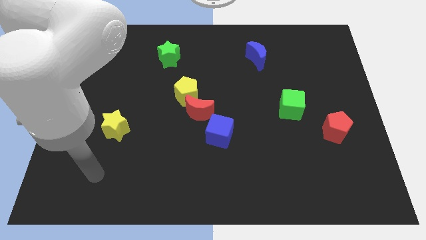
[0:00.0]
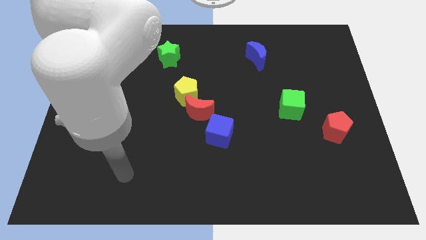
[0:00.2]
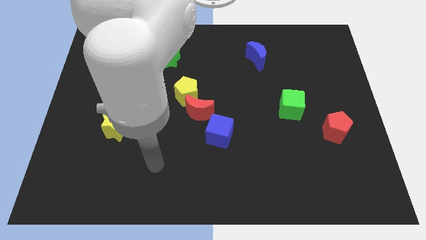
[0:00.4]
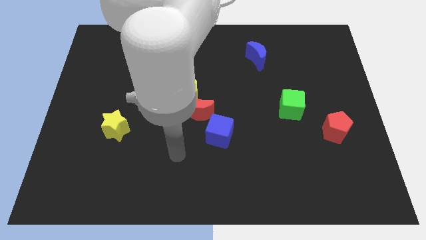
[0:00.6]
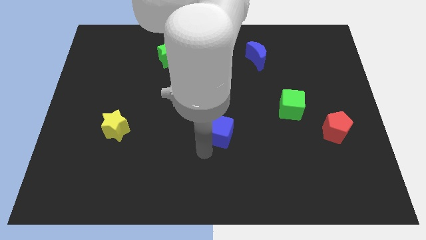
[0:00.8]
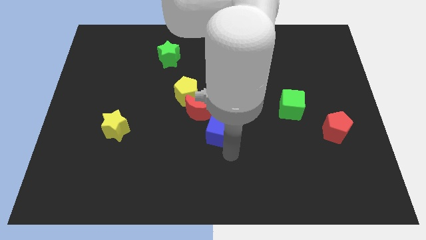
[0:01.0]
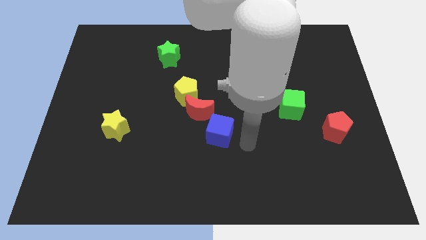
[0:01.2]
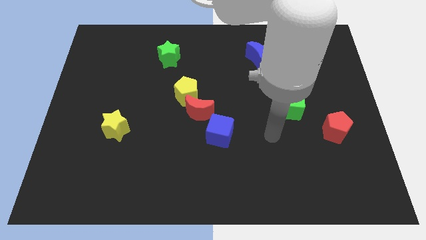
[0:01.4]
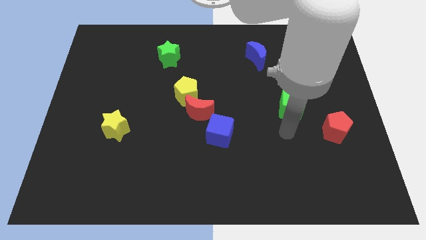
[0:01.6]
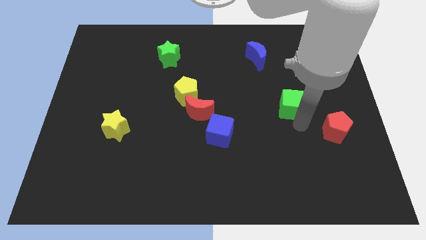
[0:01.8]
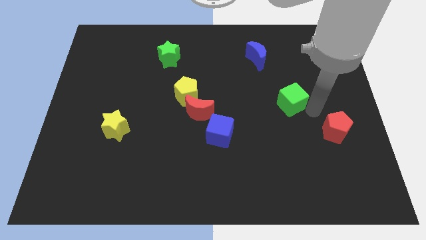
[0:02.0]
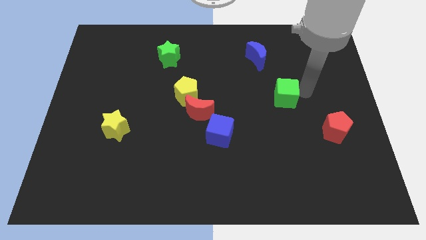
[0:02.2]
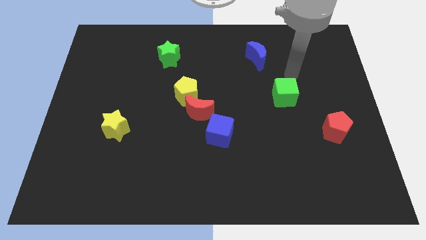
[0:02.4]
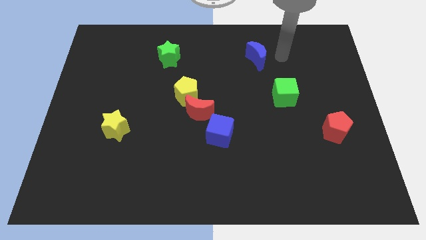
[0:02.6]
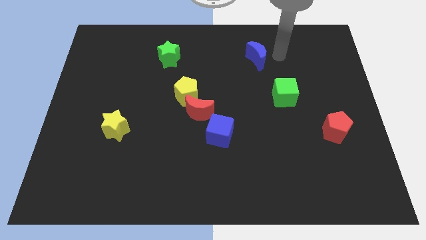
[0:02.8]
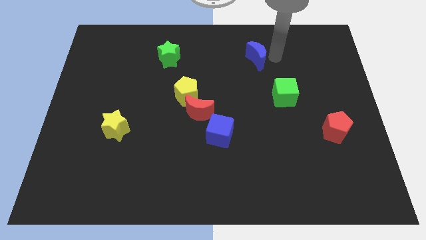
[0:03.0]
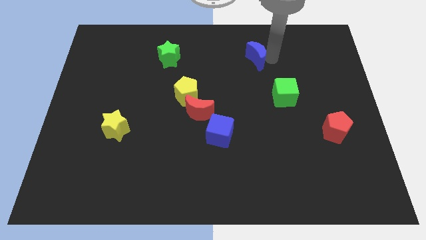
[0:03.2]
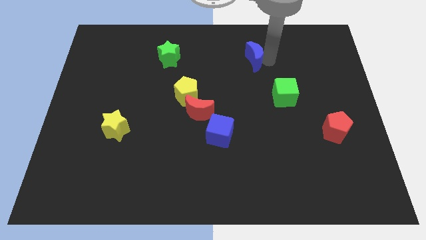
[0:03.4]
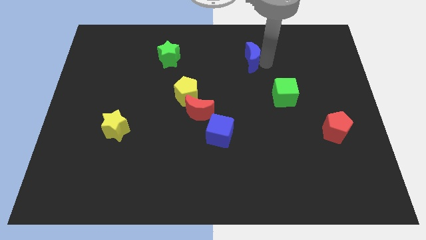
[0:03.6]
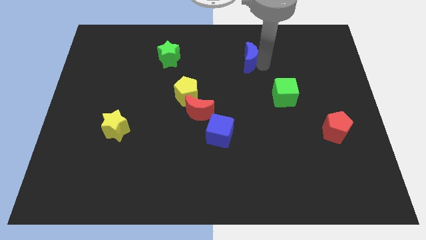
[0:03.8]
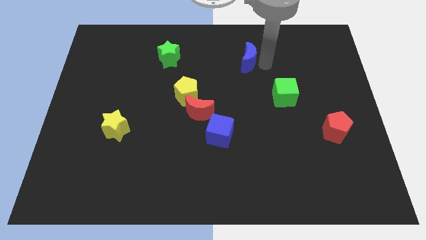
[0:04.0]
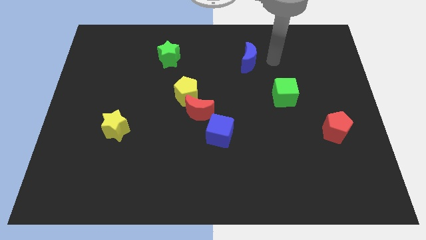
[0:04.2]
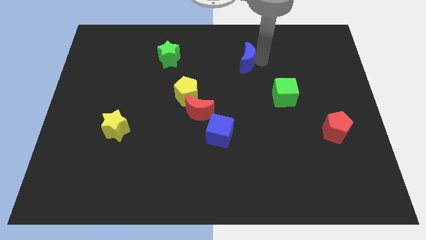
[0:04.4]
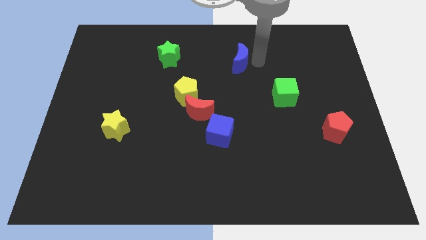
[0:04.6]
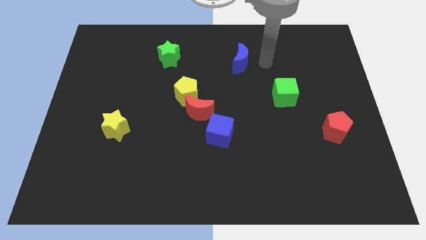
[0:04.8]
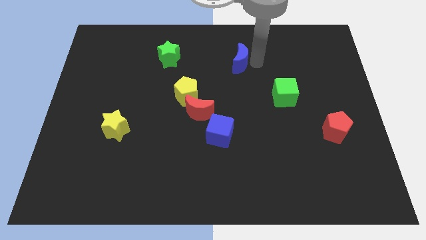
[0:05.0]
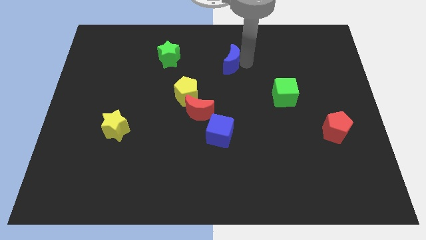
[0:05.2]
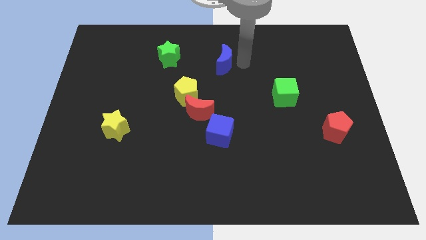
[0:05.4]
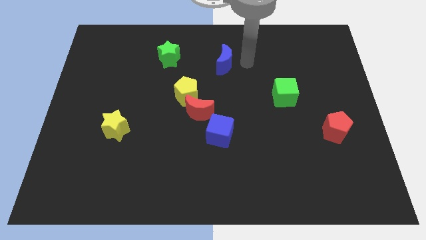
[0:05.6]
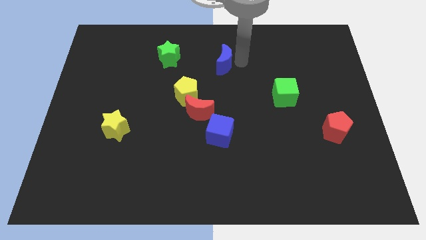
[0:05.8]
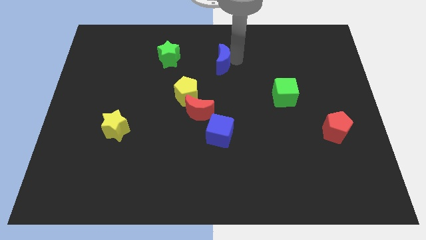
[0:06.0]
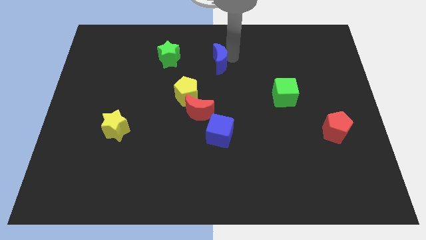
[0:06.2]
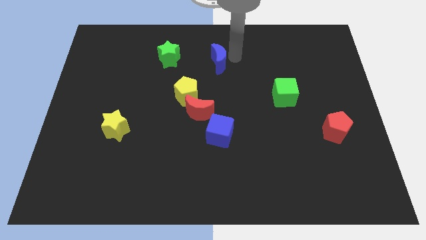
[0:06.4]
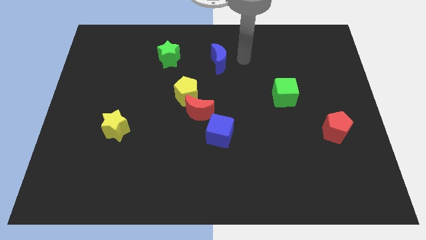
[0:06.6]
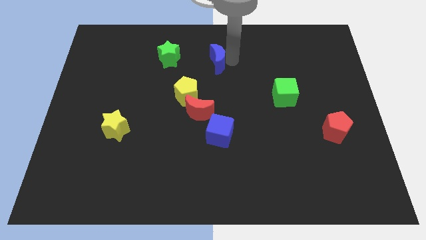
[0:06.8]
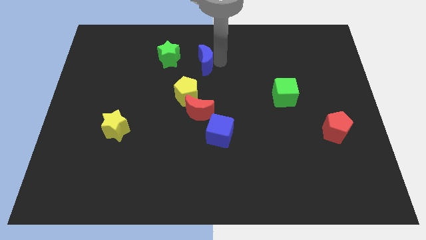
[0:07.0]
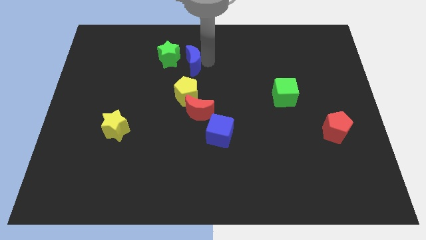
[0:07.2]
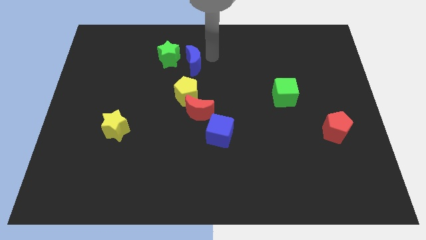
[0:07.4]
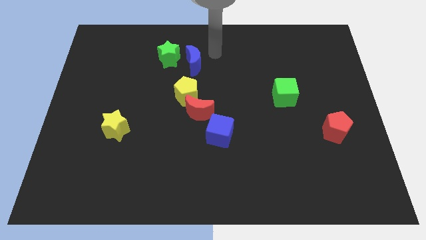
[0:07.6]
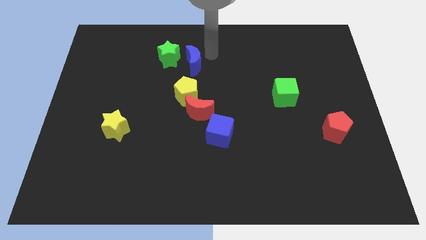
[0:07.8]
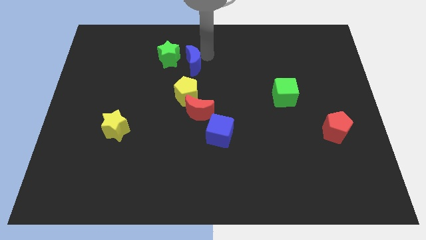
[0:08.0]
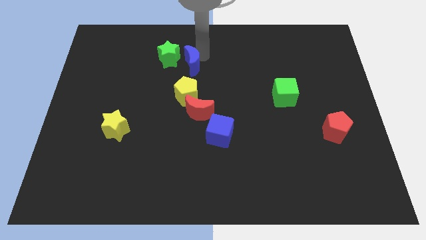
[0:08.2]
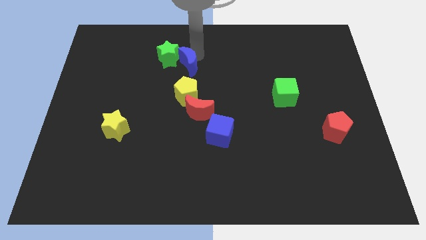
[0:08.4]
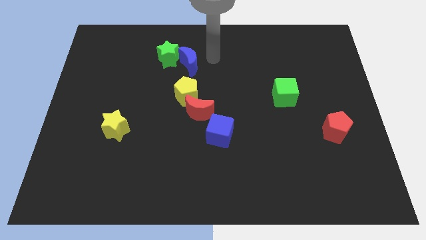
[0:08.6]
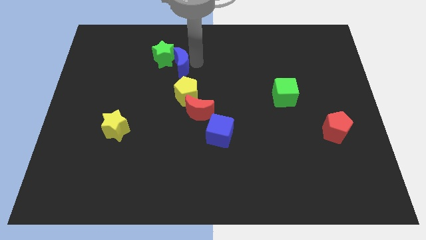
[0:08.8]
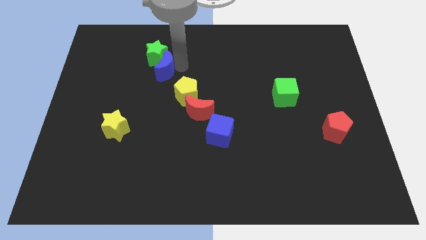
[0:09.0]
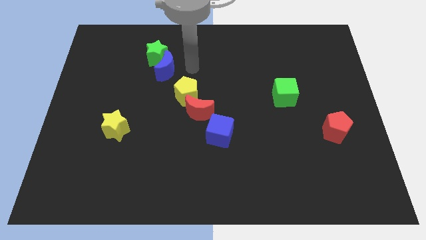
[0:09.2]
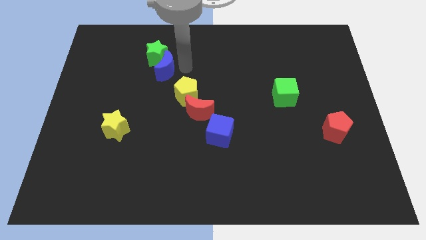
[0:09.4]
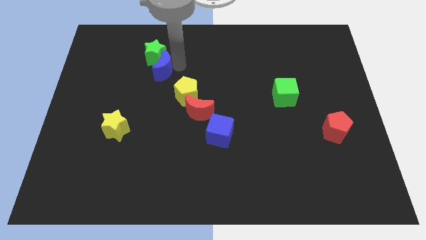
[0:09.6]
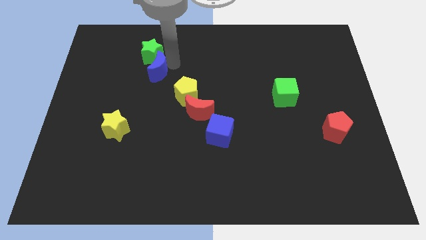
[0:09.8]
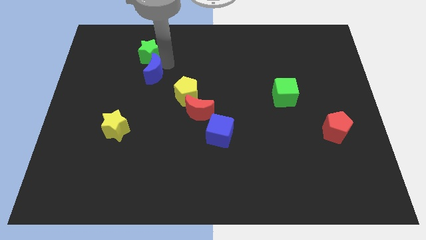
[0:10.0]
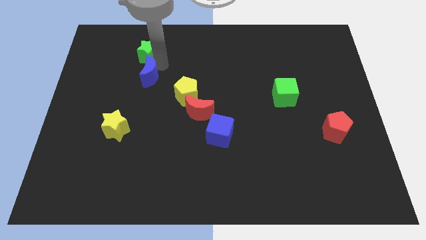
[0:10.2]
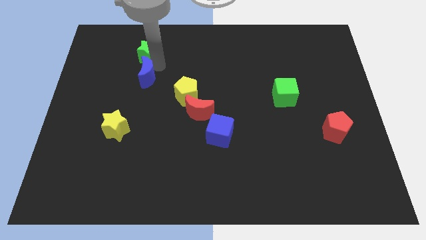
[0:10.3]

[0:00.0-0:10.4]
put the blue moon to the bottom left side of the green star

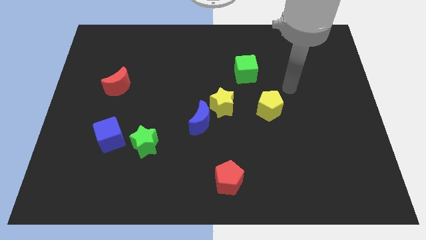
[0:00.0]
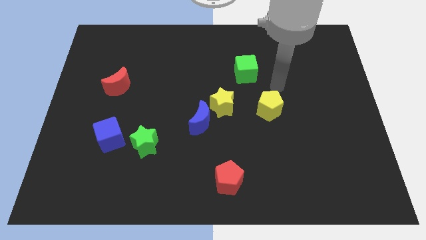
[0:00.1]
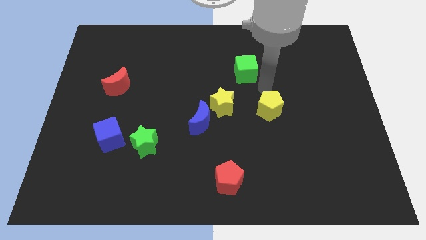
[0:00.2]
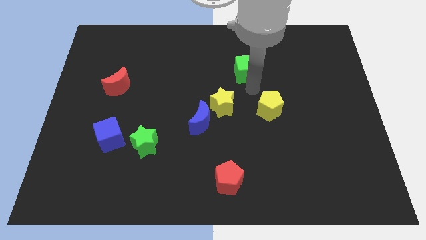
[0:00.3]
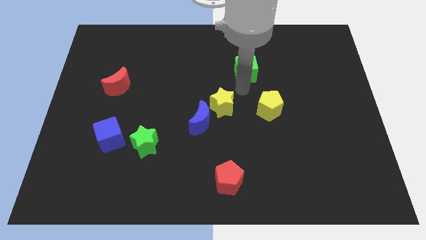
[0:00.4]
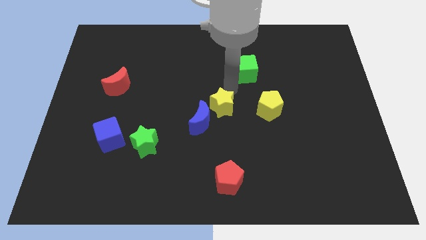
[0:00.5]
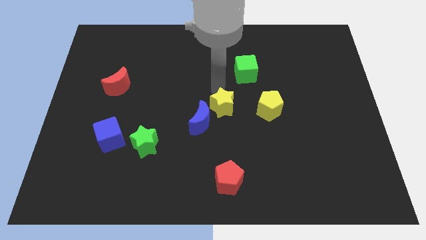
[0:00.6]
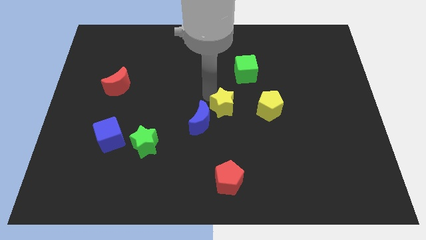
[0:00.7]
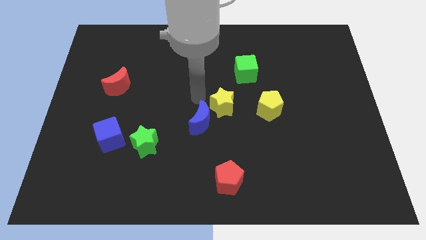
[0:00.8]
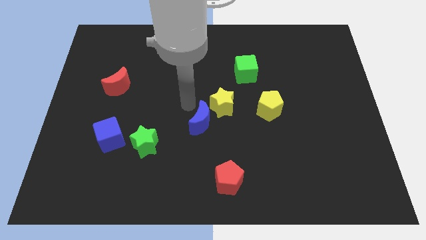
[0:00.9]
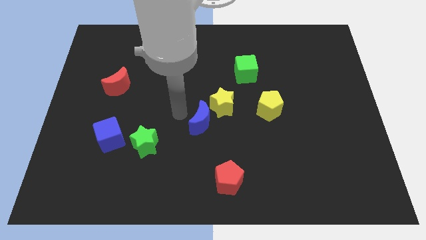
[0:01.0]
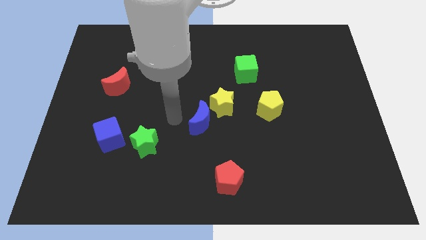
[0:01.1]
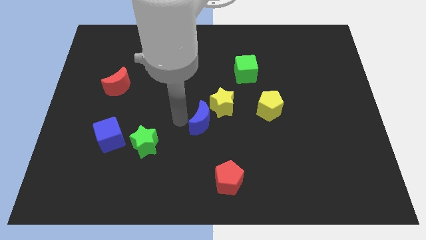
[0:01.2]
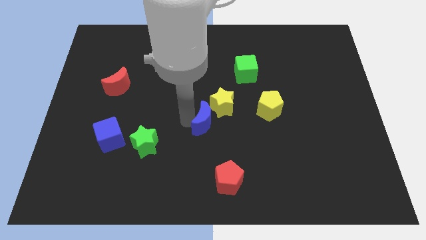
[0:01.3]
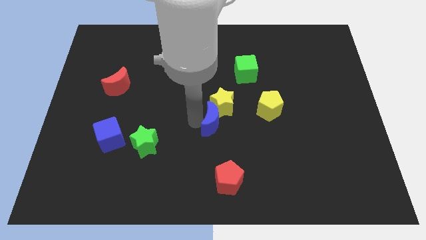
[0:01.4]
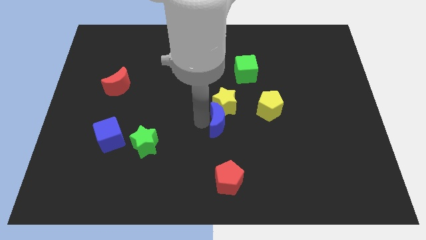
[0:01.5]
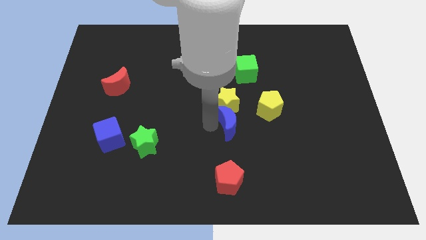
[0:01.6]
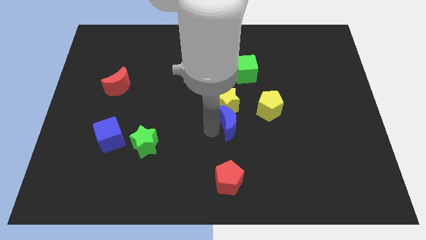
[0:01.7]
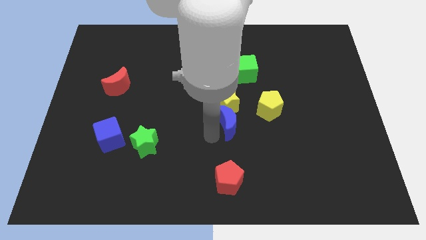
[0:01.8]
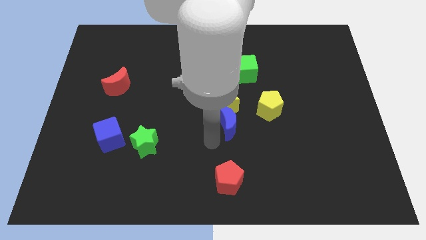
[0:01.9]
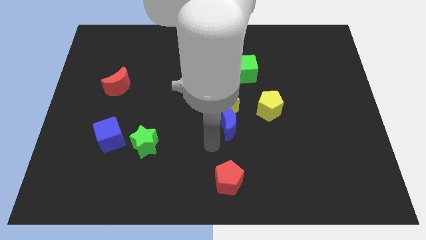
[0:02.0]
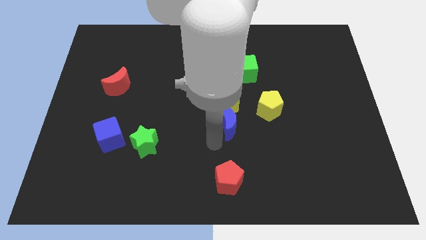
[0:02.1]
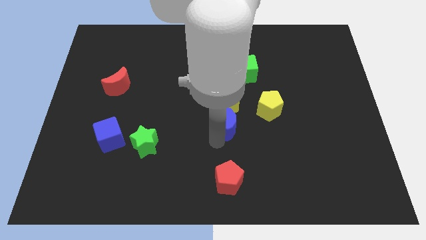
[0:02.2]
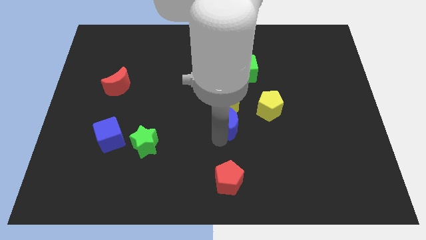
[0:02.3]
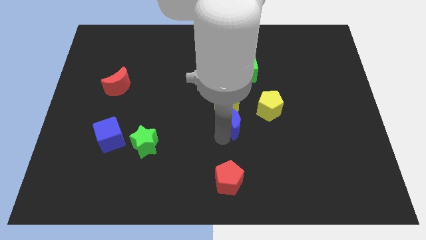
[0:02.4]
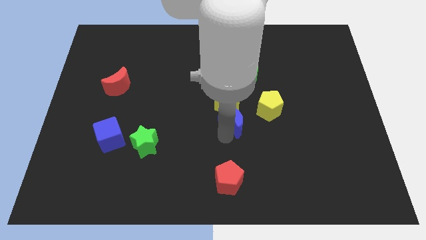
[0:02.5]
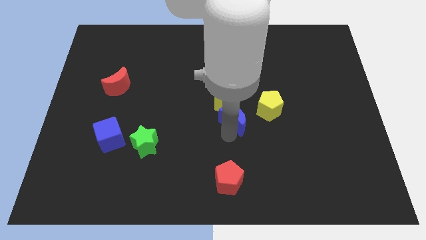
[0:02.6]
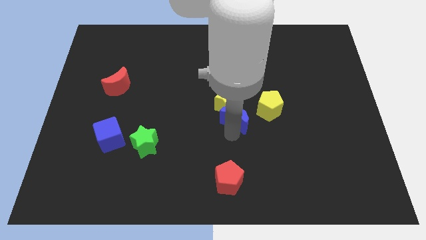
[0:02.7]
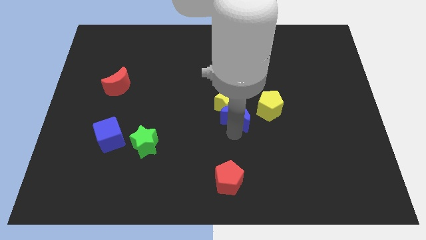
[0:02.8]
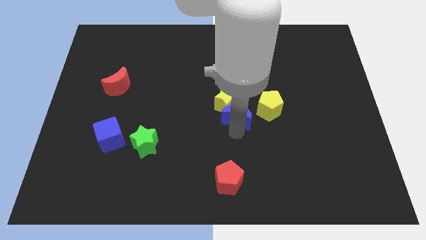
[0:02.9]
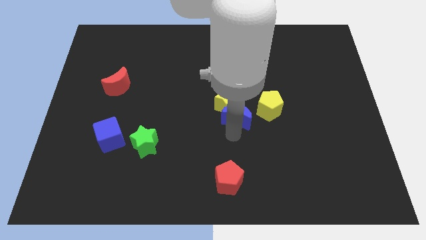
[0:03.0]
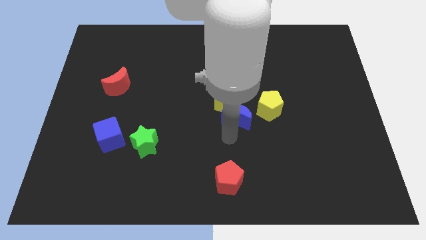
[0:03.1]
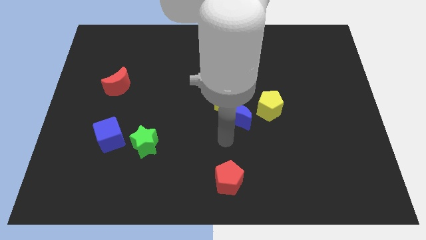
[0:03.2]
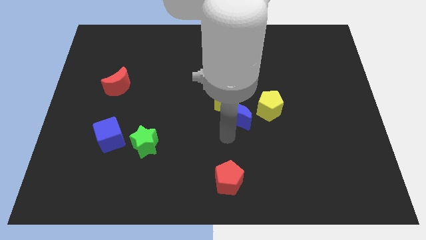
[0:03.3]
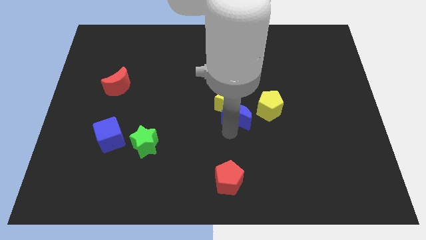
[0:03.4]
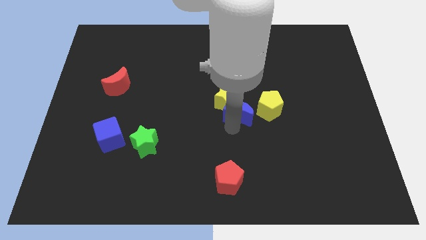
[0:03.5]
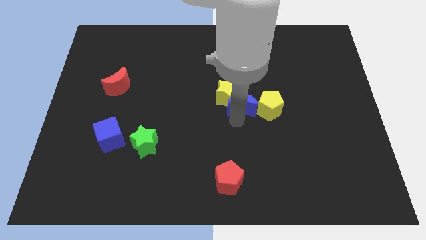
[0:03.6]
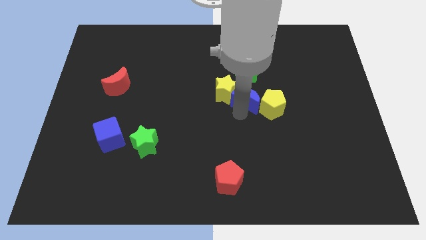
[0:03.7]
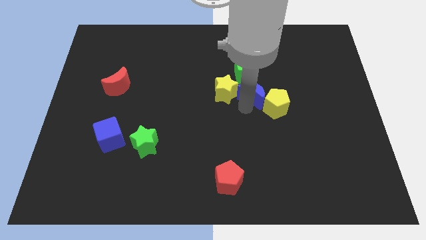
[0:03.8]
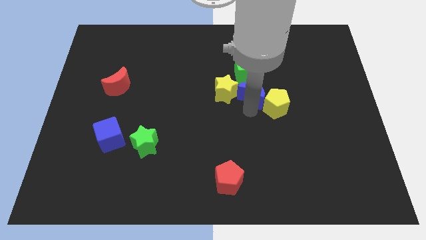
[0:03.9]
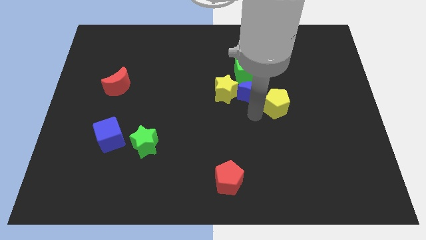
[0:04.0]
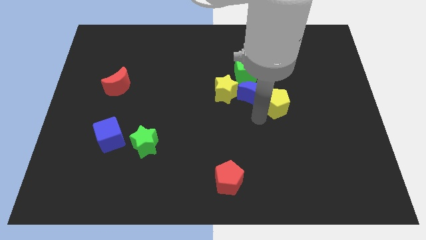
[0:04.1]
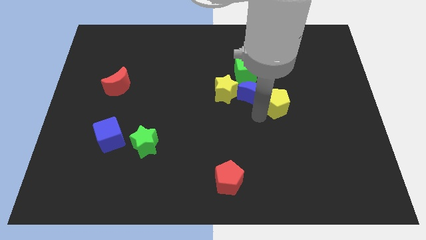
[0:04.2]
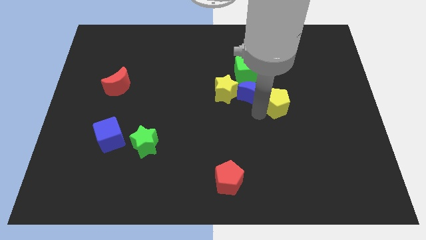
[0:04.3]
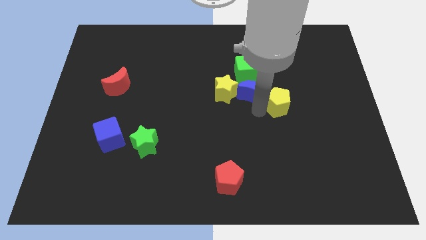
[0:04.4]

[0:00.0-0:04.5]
push the blue moon to the top right of the yellow star
